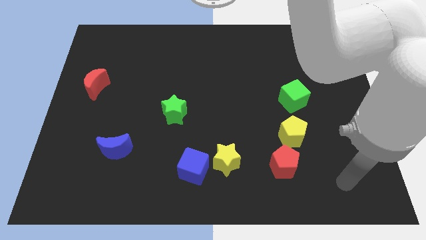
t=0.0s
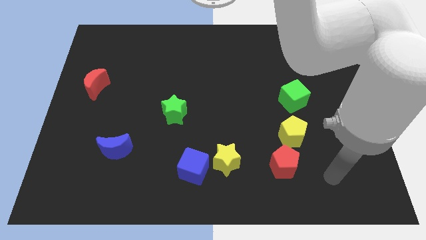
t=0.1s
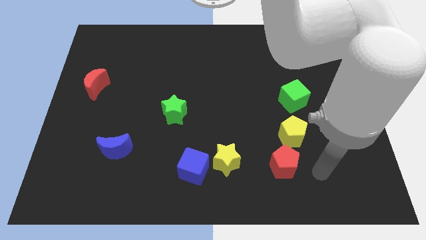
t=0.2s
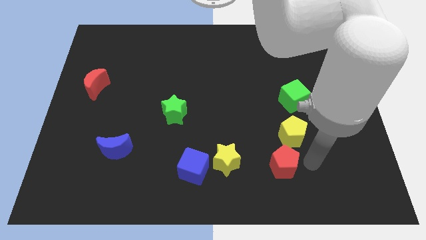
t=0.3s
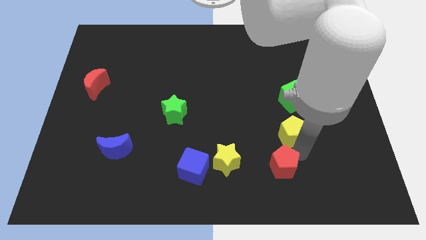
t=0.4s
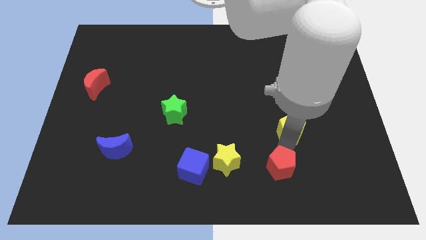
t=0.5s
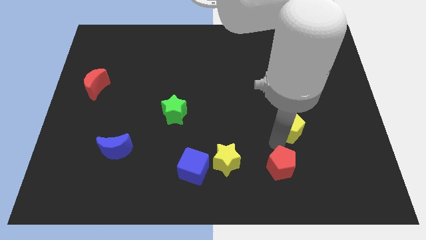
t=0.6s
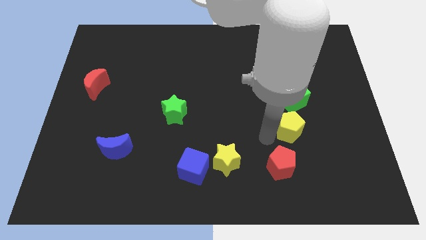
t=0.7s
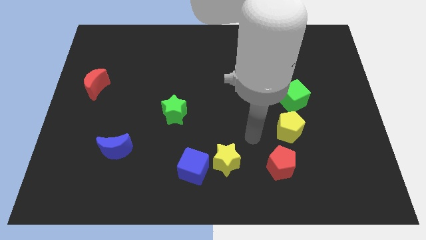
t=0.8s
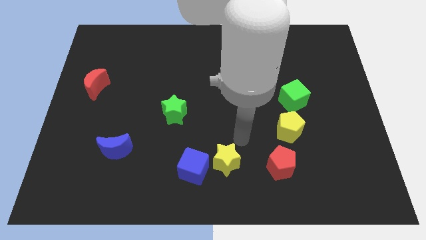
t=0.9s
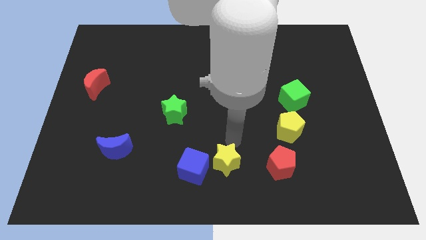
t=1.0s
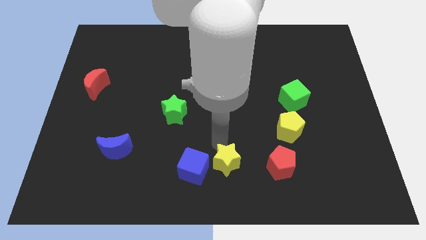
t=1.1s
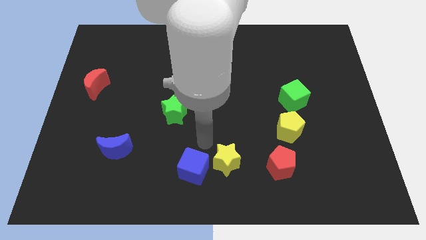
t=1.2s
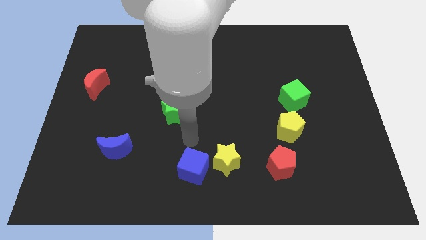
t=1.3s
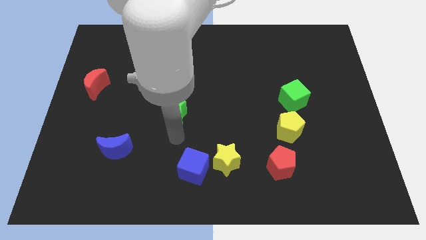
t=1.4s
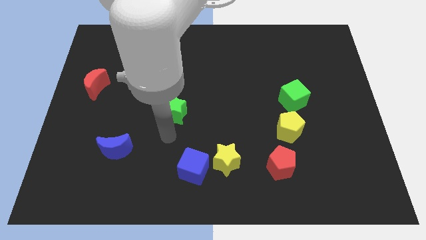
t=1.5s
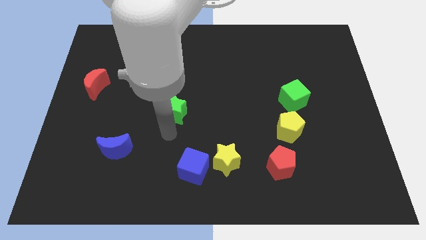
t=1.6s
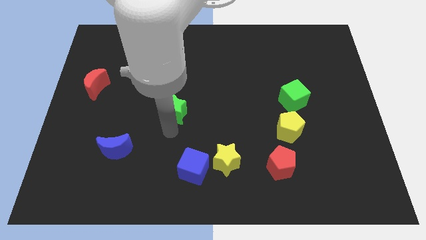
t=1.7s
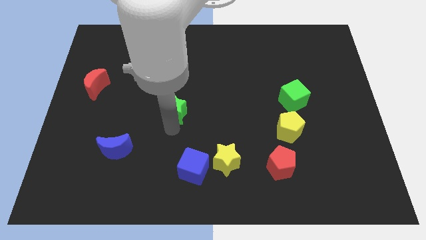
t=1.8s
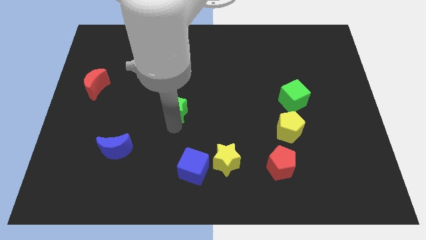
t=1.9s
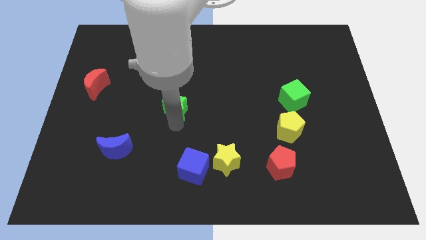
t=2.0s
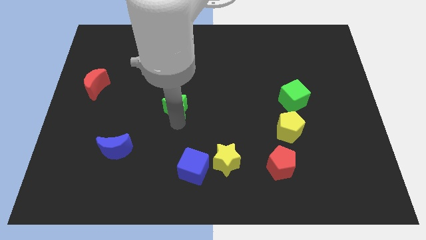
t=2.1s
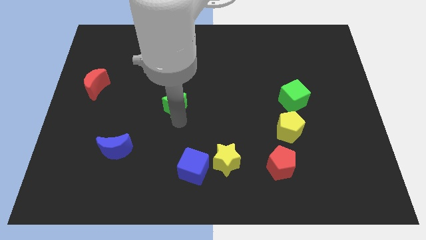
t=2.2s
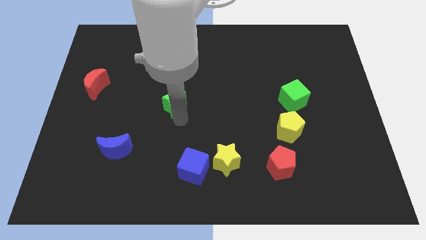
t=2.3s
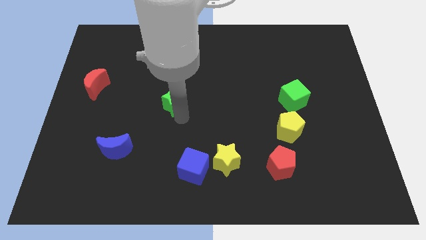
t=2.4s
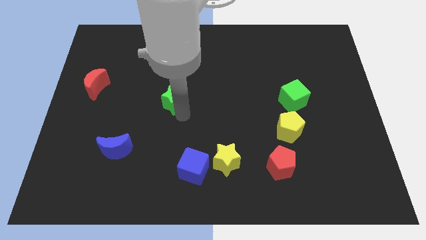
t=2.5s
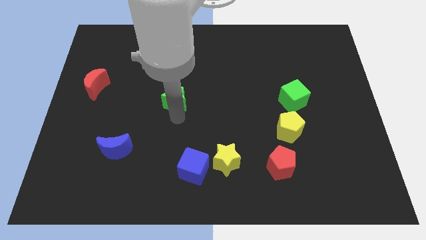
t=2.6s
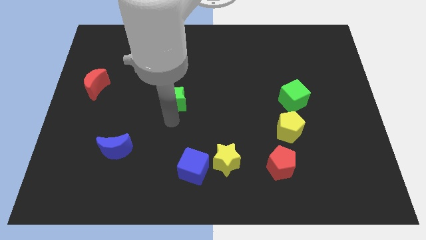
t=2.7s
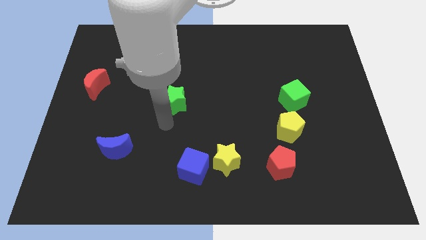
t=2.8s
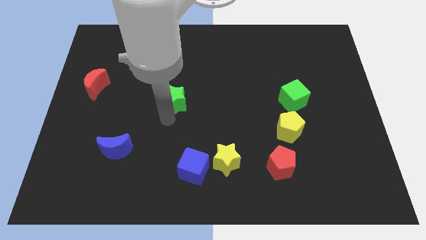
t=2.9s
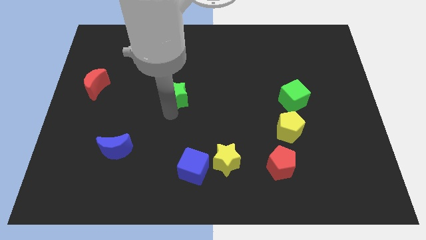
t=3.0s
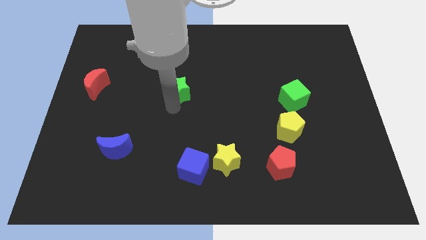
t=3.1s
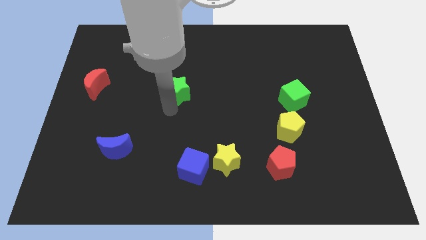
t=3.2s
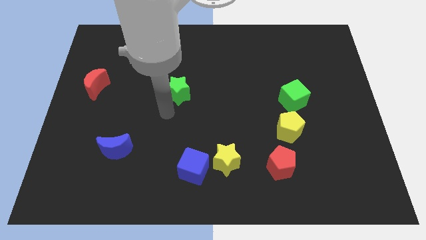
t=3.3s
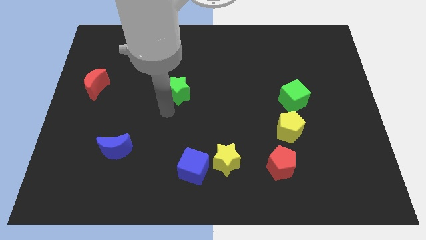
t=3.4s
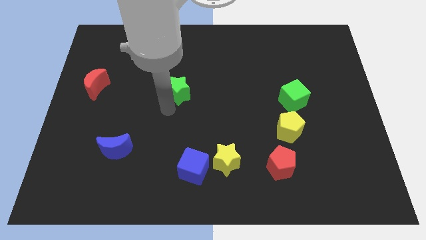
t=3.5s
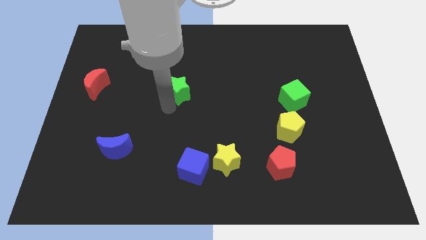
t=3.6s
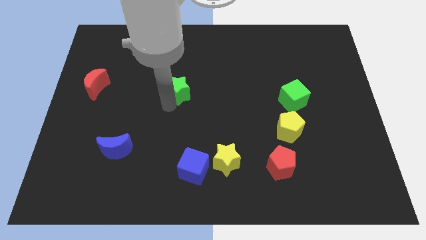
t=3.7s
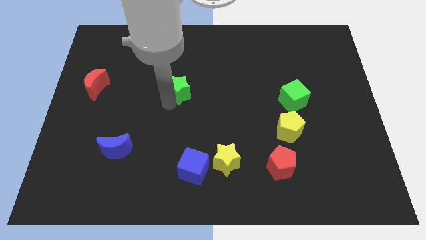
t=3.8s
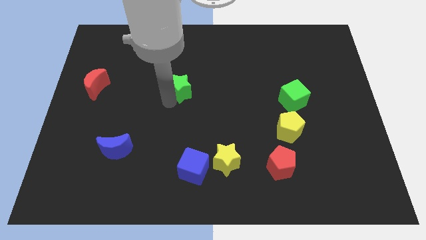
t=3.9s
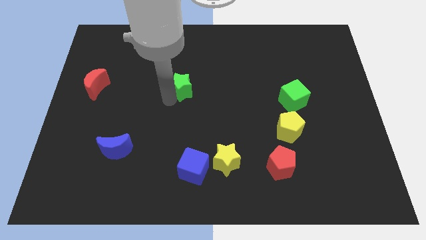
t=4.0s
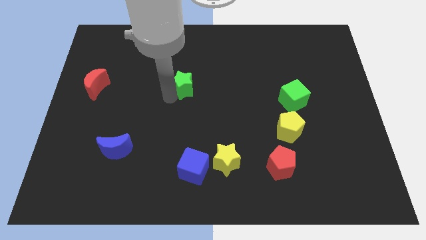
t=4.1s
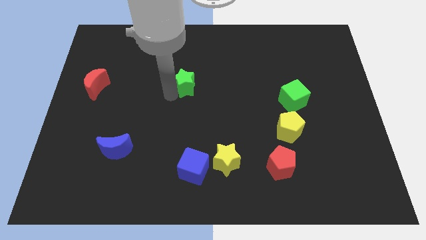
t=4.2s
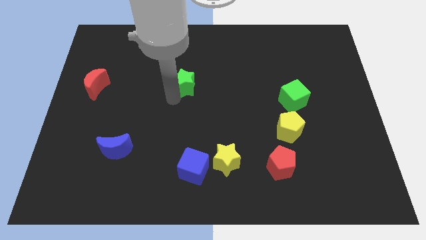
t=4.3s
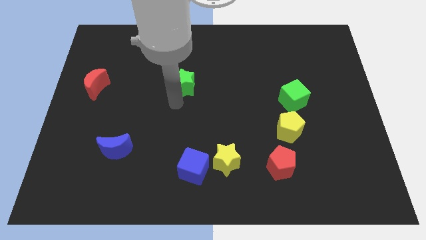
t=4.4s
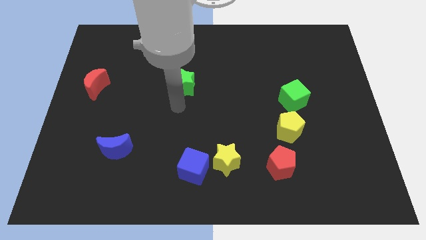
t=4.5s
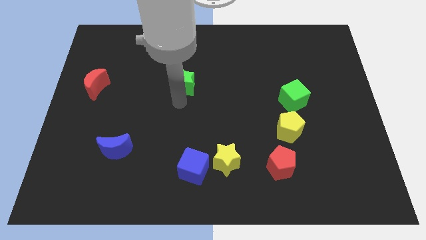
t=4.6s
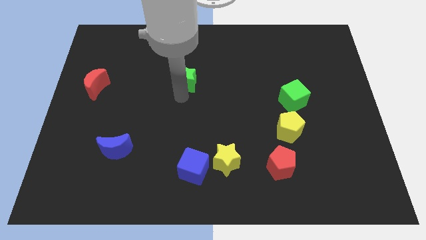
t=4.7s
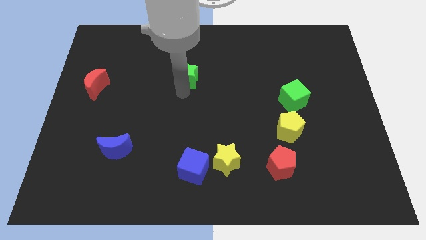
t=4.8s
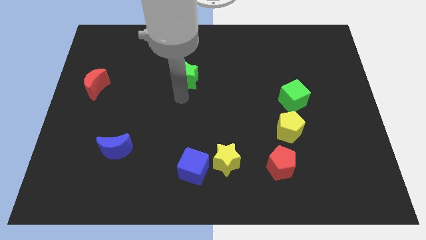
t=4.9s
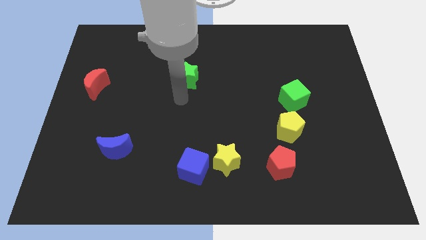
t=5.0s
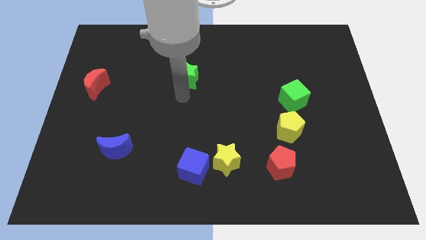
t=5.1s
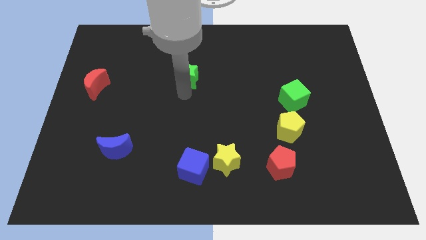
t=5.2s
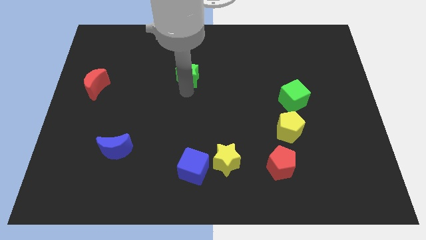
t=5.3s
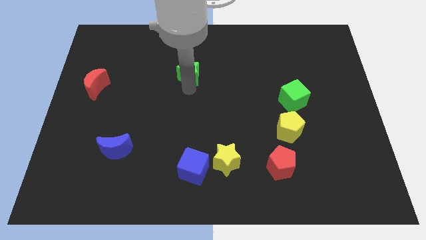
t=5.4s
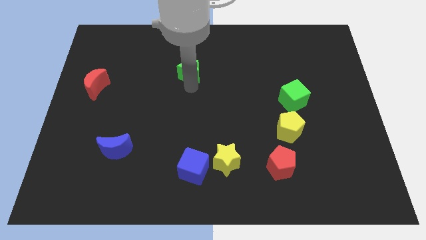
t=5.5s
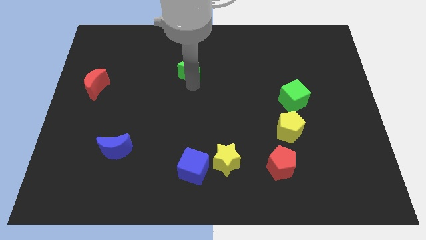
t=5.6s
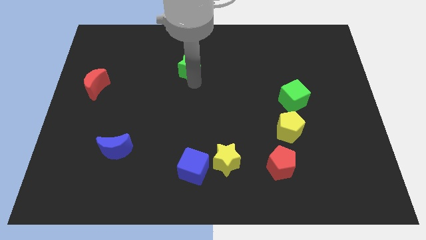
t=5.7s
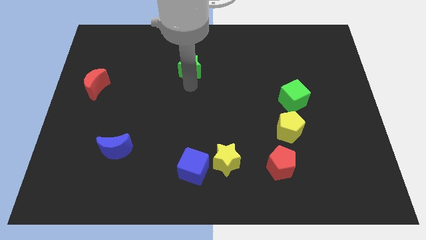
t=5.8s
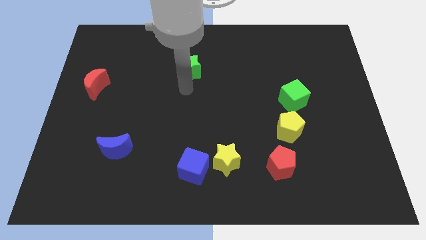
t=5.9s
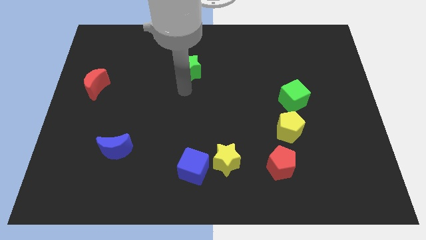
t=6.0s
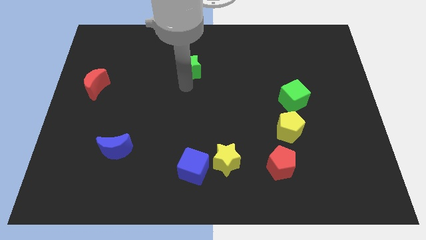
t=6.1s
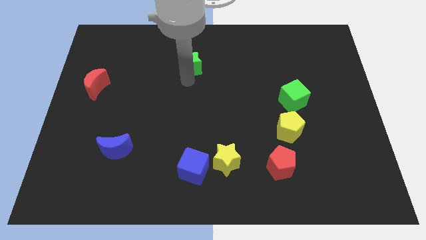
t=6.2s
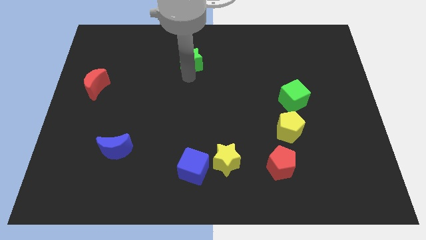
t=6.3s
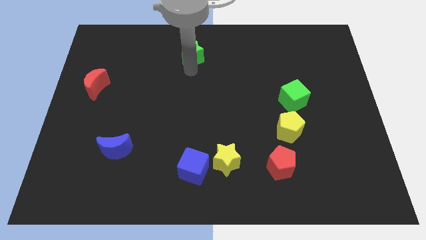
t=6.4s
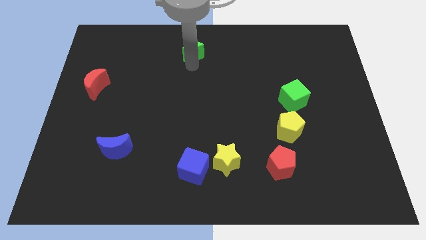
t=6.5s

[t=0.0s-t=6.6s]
move the green star to the top side
